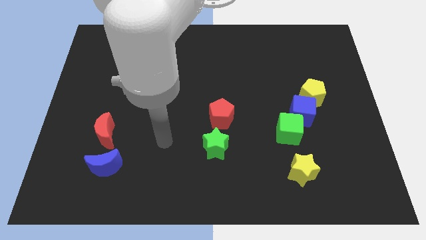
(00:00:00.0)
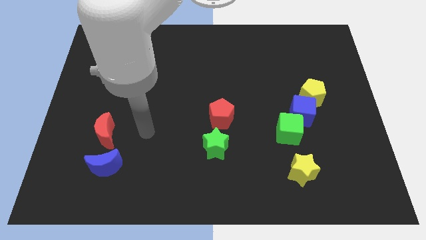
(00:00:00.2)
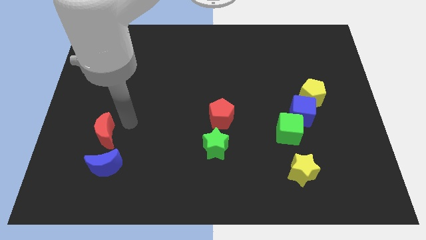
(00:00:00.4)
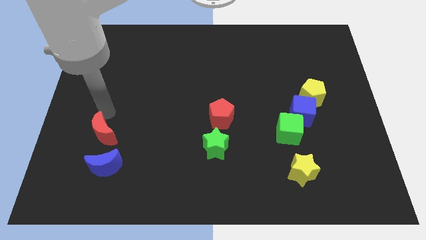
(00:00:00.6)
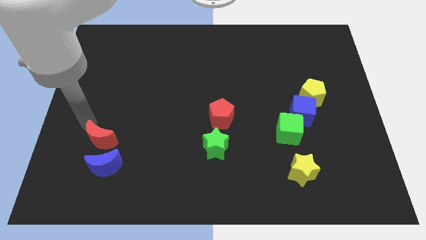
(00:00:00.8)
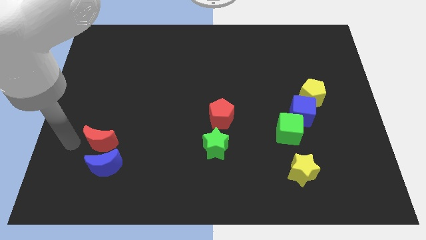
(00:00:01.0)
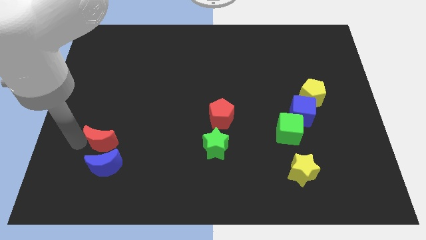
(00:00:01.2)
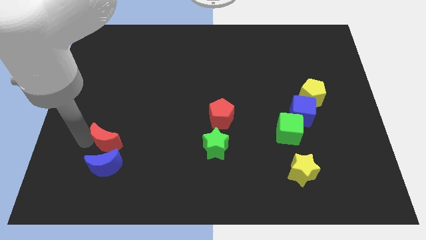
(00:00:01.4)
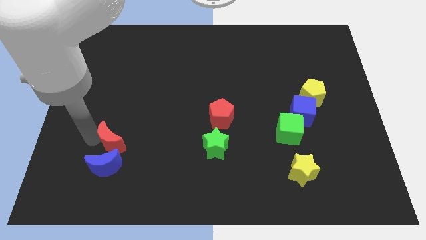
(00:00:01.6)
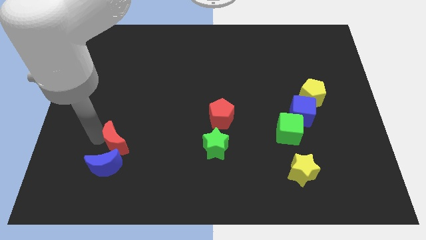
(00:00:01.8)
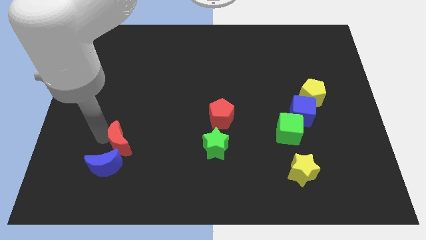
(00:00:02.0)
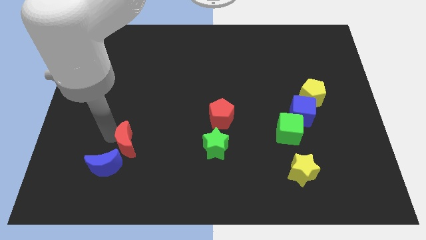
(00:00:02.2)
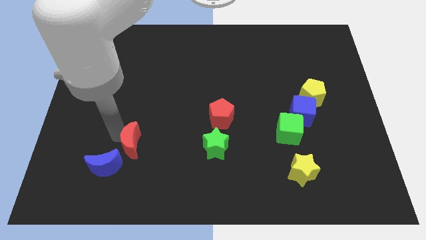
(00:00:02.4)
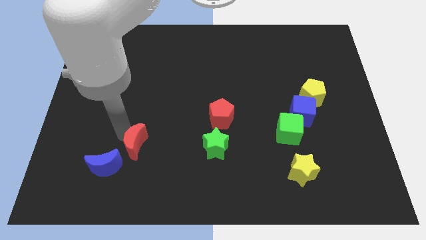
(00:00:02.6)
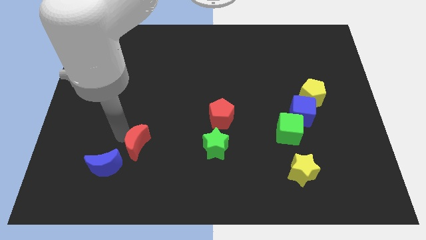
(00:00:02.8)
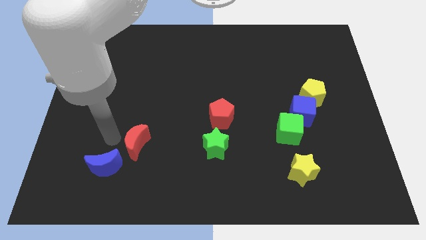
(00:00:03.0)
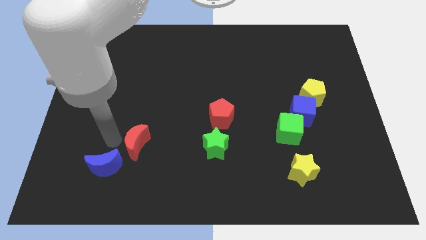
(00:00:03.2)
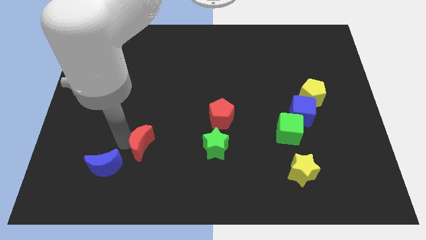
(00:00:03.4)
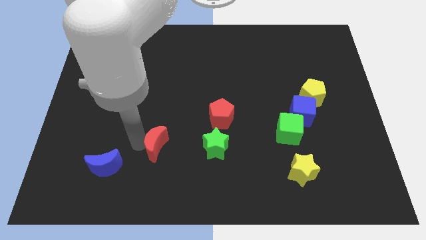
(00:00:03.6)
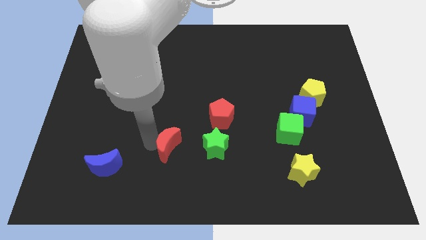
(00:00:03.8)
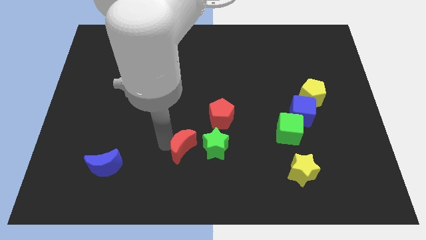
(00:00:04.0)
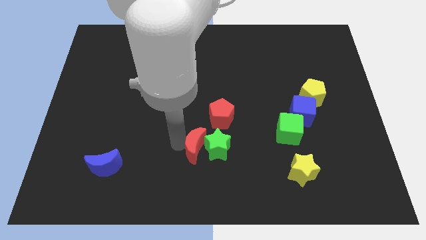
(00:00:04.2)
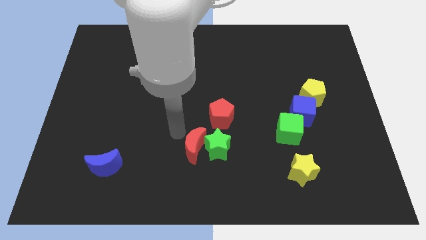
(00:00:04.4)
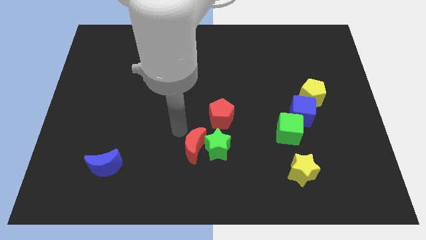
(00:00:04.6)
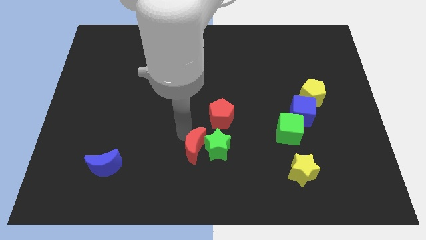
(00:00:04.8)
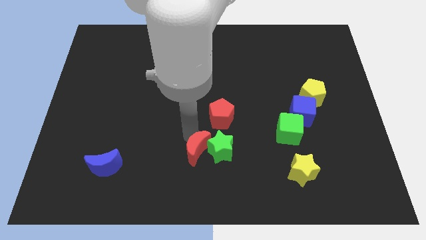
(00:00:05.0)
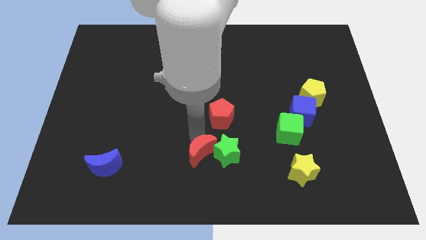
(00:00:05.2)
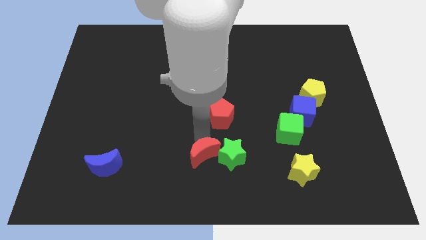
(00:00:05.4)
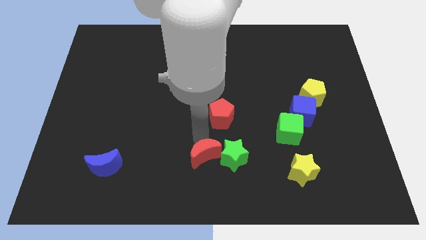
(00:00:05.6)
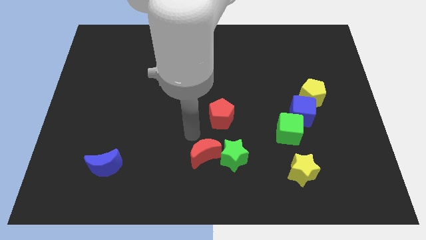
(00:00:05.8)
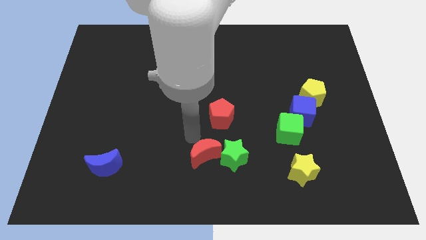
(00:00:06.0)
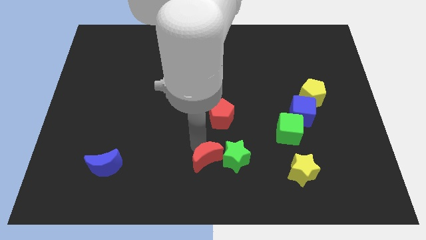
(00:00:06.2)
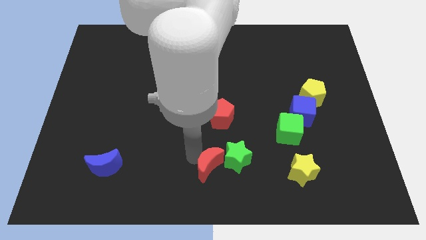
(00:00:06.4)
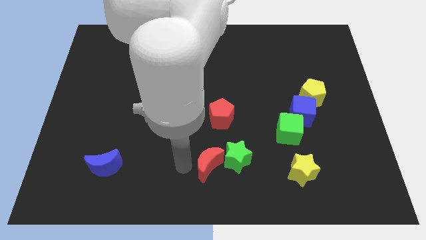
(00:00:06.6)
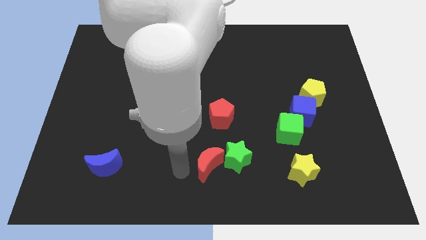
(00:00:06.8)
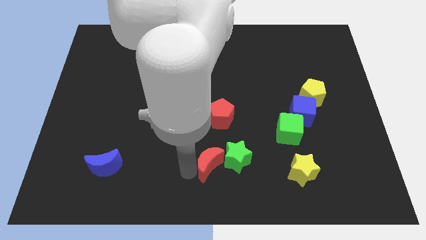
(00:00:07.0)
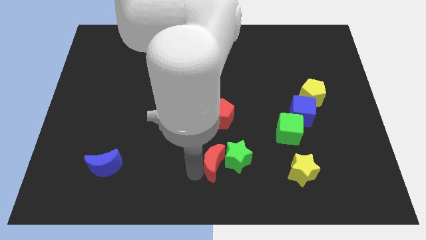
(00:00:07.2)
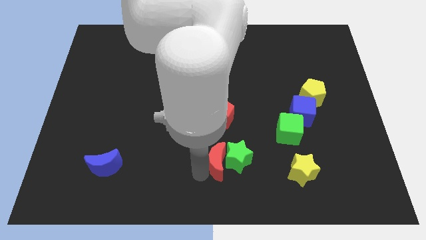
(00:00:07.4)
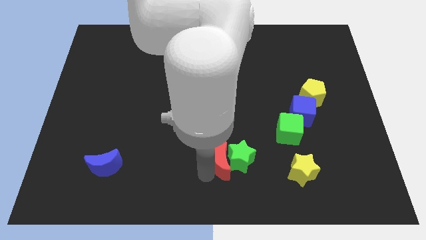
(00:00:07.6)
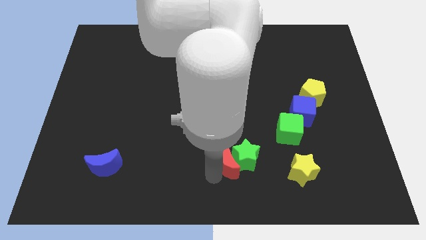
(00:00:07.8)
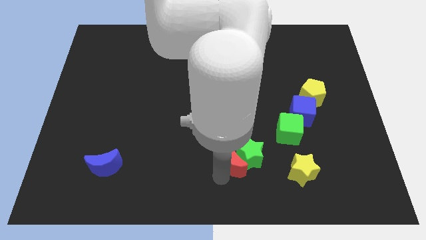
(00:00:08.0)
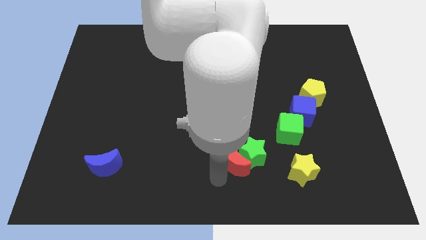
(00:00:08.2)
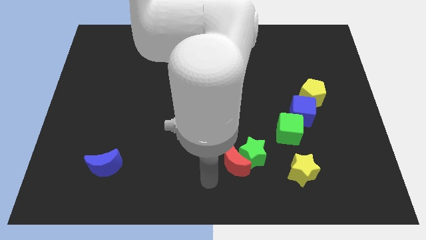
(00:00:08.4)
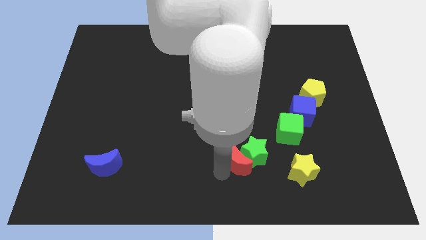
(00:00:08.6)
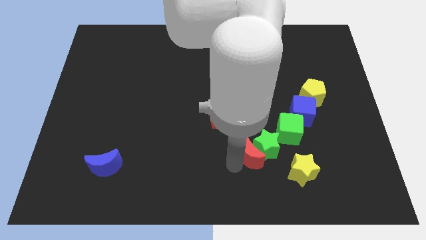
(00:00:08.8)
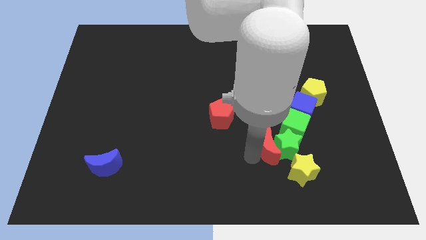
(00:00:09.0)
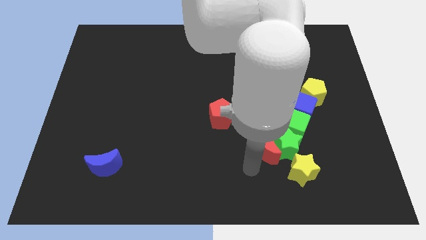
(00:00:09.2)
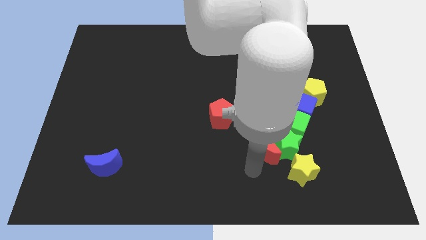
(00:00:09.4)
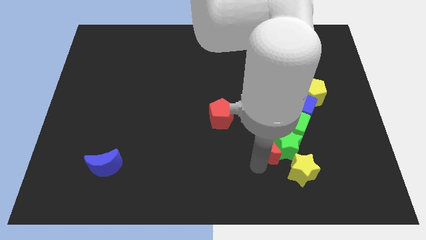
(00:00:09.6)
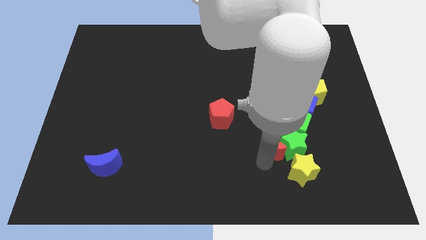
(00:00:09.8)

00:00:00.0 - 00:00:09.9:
slide the red moon to the bottom left of the blue cube

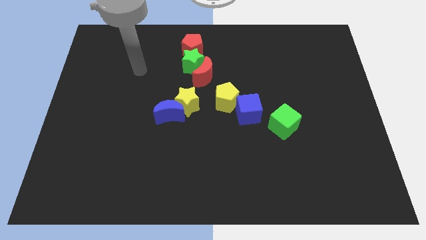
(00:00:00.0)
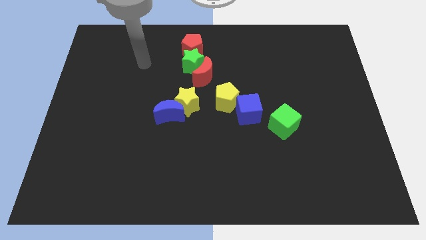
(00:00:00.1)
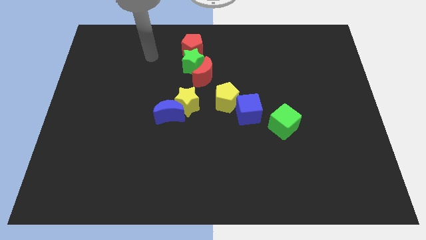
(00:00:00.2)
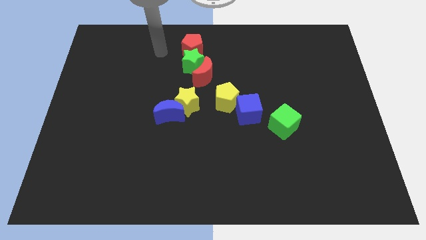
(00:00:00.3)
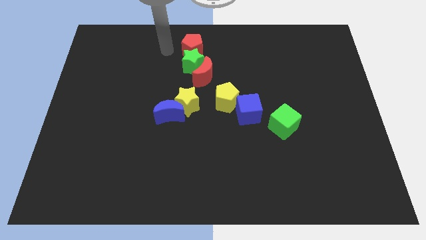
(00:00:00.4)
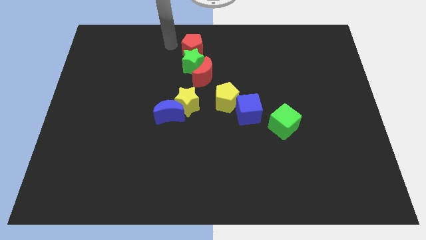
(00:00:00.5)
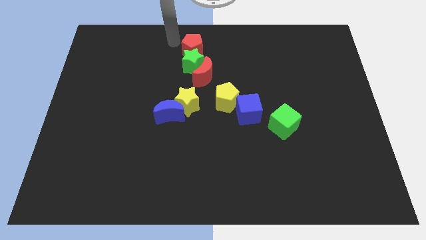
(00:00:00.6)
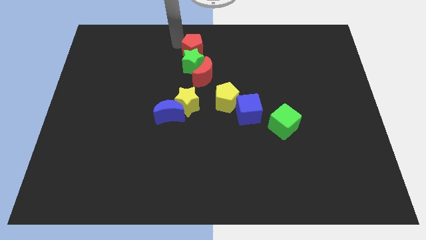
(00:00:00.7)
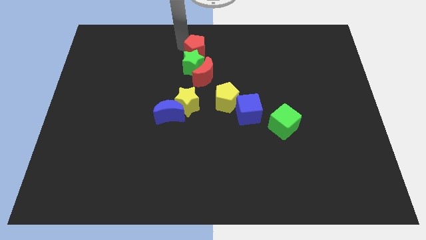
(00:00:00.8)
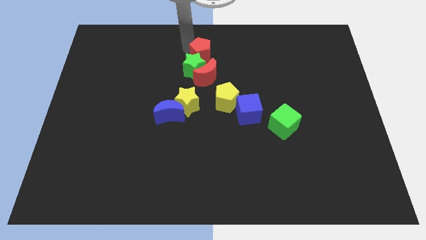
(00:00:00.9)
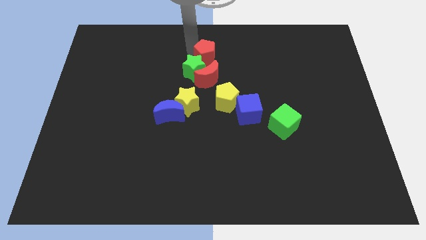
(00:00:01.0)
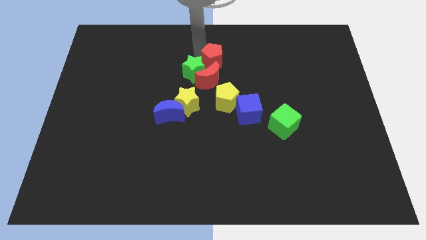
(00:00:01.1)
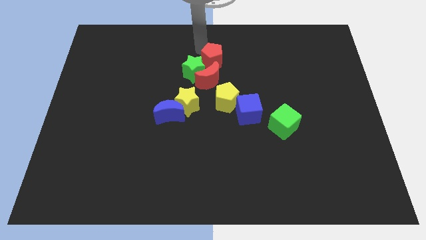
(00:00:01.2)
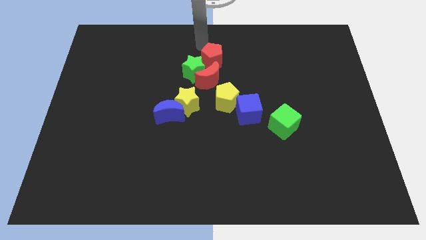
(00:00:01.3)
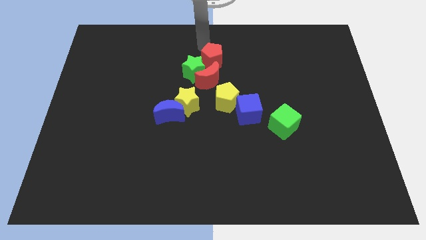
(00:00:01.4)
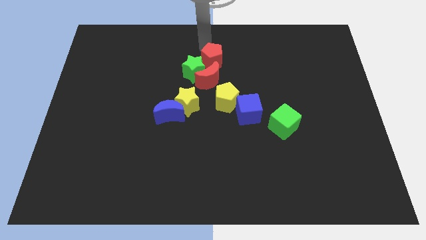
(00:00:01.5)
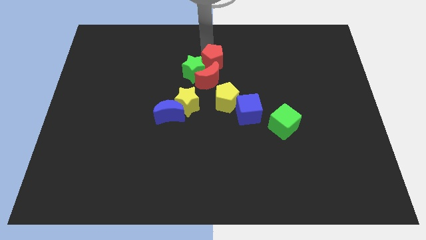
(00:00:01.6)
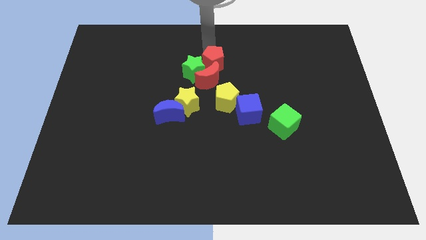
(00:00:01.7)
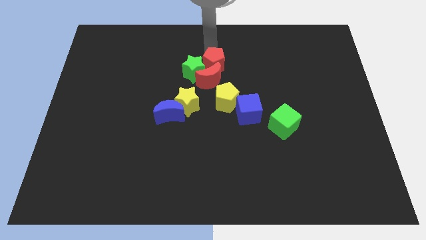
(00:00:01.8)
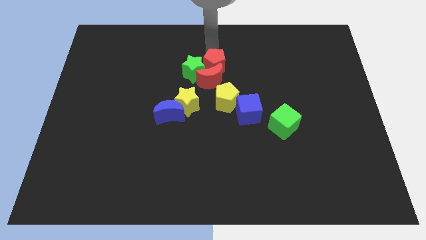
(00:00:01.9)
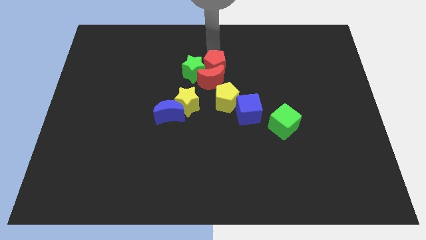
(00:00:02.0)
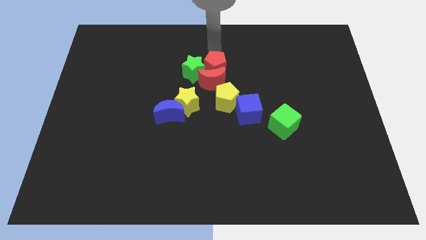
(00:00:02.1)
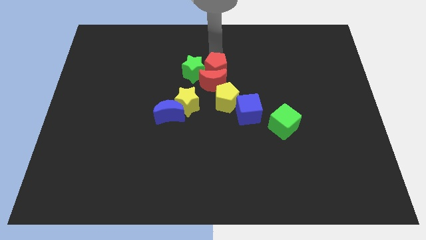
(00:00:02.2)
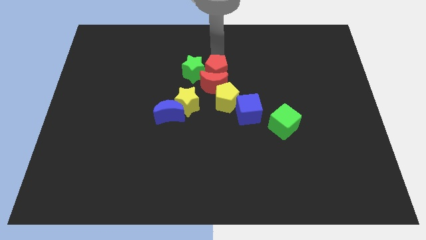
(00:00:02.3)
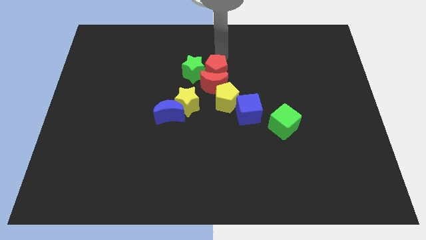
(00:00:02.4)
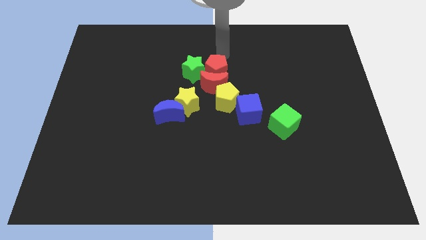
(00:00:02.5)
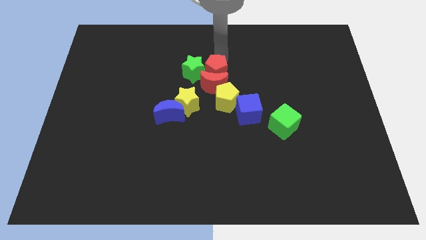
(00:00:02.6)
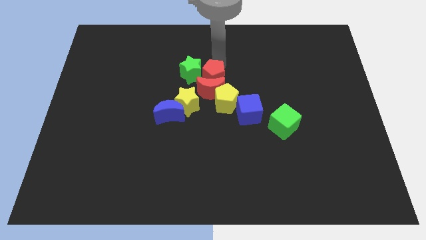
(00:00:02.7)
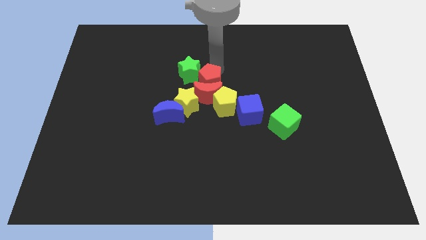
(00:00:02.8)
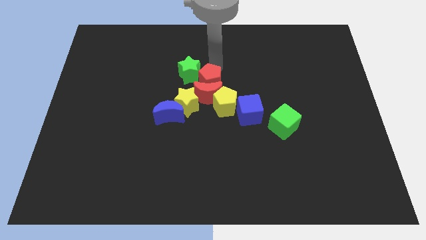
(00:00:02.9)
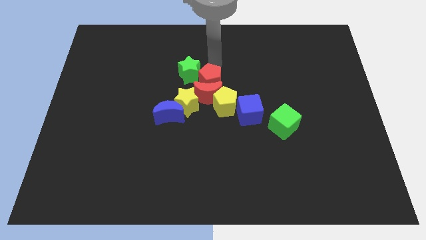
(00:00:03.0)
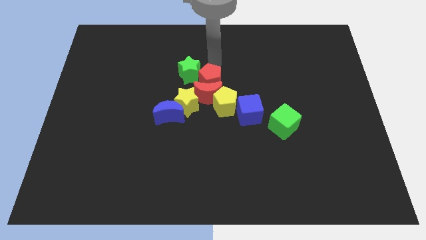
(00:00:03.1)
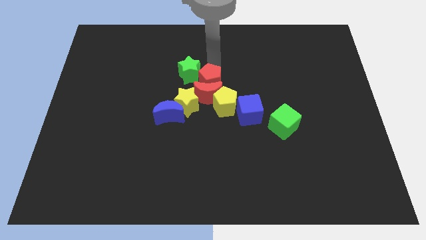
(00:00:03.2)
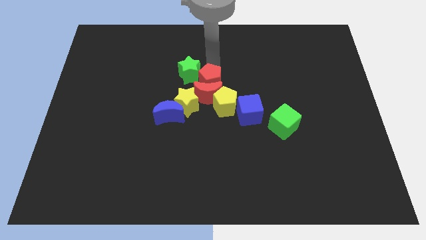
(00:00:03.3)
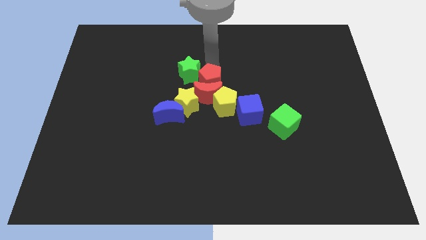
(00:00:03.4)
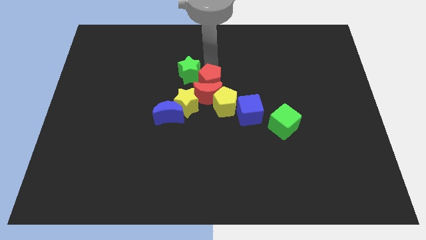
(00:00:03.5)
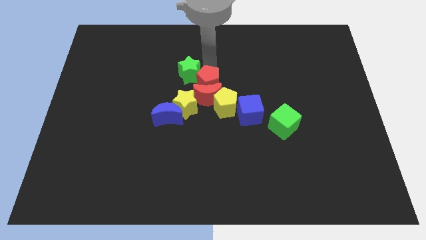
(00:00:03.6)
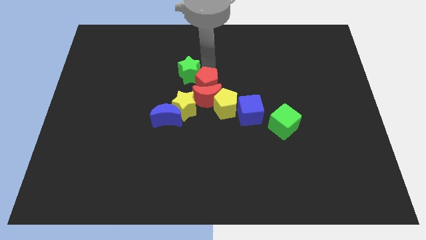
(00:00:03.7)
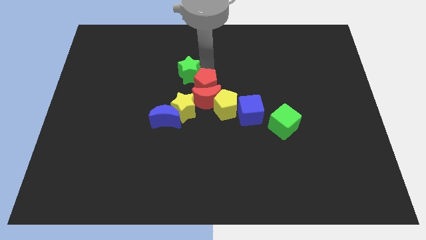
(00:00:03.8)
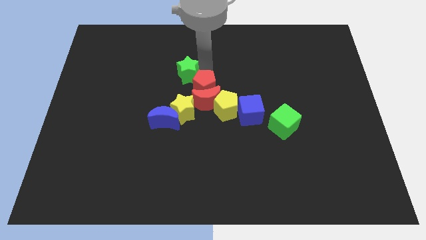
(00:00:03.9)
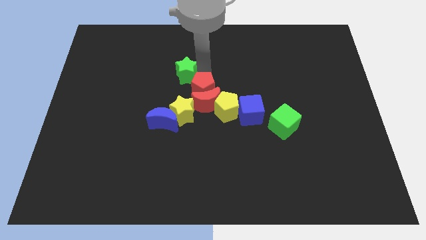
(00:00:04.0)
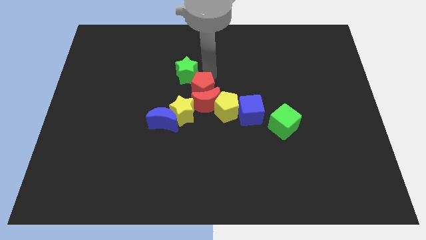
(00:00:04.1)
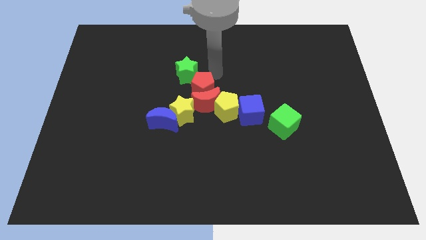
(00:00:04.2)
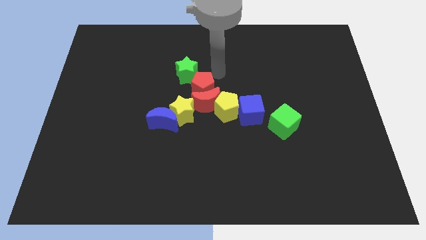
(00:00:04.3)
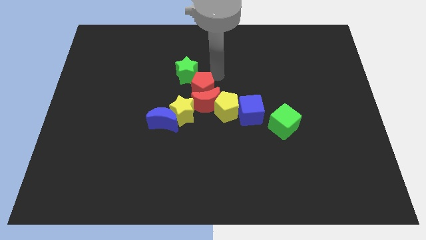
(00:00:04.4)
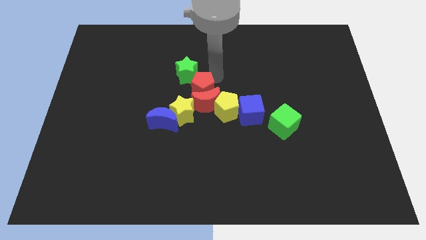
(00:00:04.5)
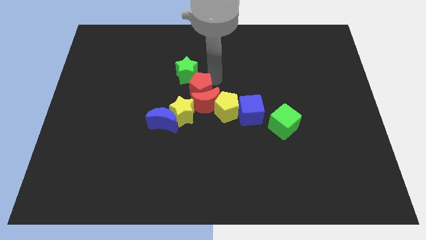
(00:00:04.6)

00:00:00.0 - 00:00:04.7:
move the red pentagon to the top right of the blue moon
